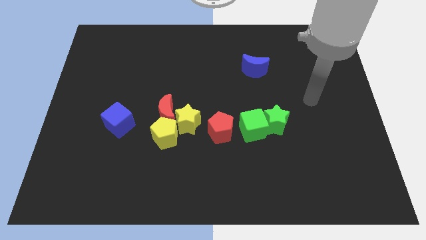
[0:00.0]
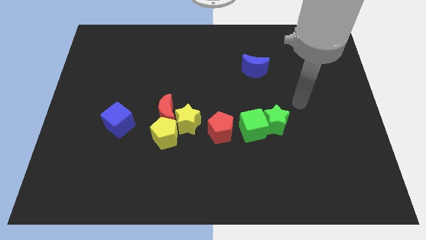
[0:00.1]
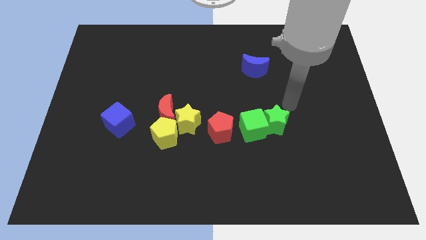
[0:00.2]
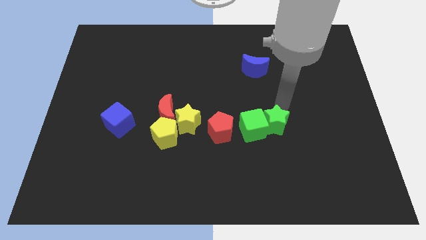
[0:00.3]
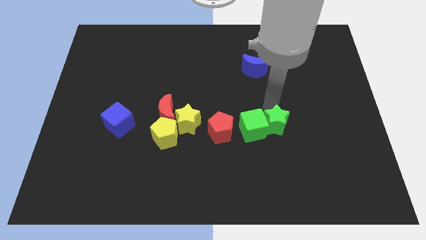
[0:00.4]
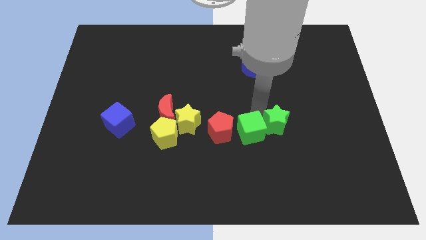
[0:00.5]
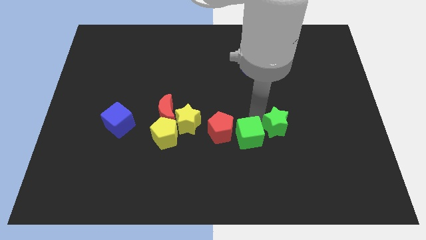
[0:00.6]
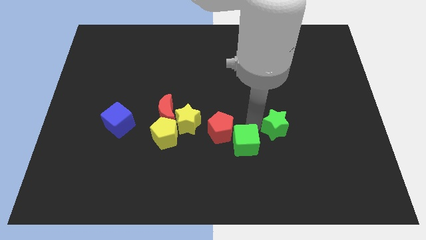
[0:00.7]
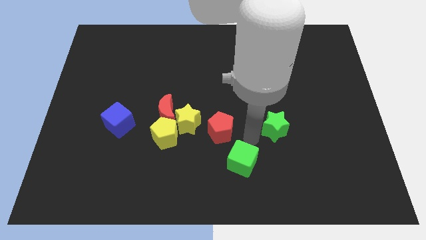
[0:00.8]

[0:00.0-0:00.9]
move the green star away from the green cube

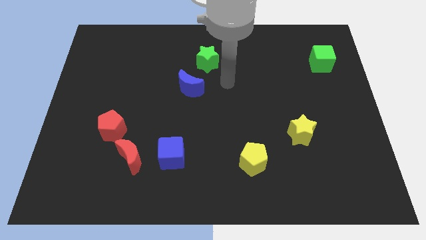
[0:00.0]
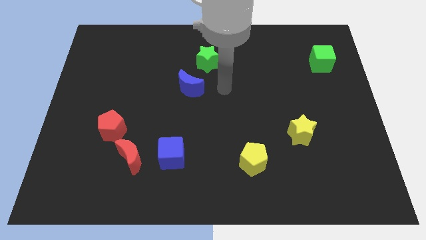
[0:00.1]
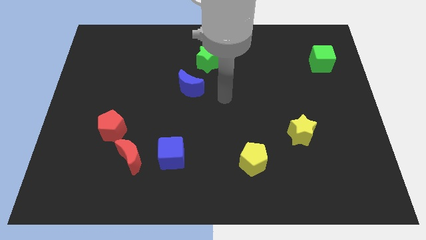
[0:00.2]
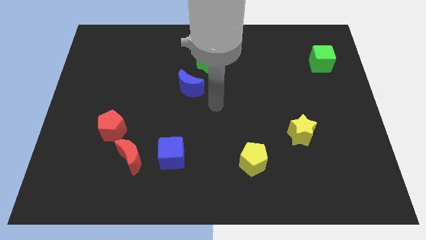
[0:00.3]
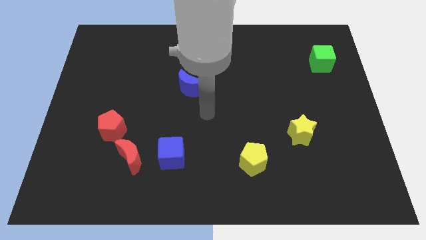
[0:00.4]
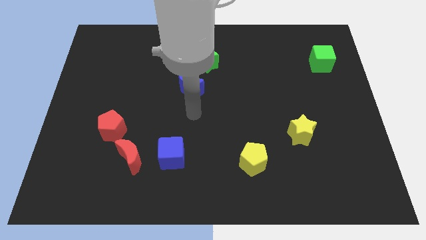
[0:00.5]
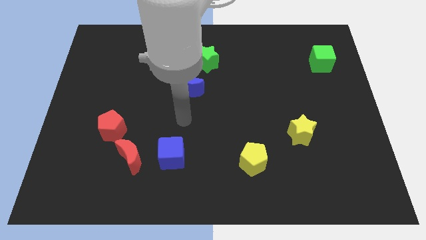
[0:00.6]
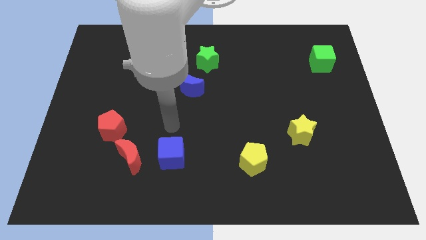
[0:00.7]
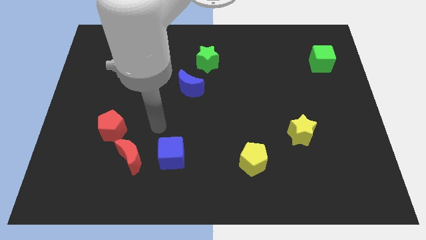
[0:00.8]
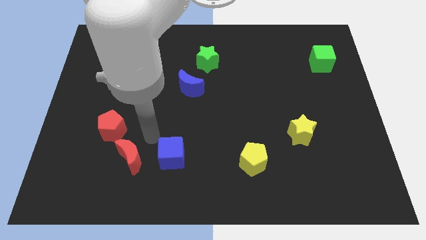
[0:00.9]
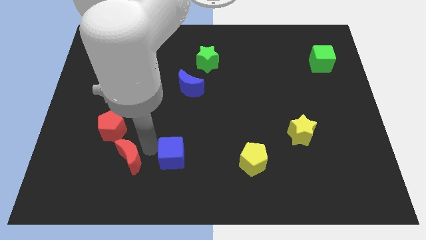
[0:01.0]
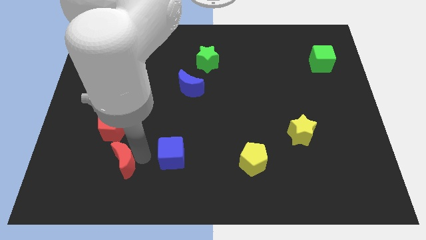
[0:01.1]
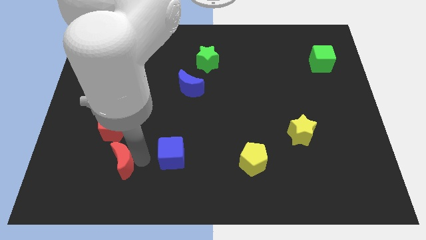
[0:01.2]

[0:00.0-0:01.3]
separate the blue cube from the red moon

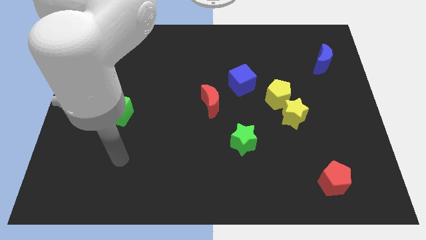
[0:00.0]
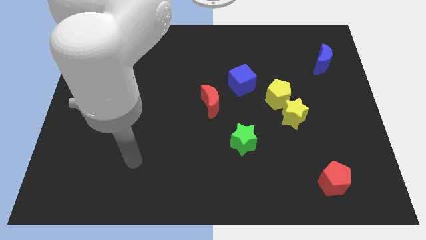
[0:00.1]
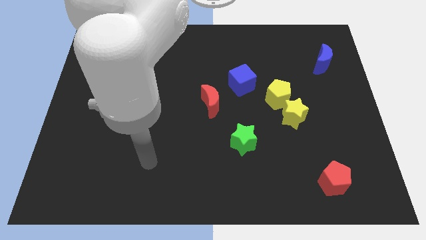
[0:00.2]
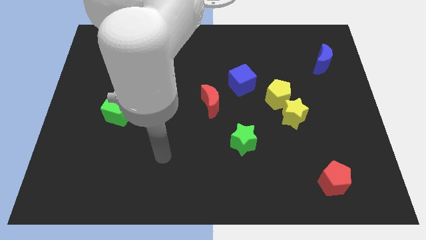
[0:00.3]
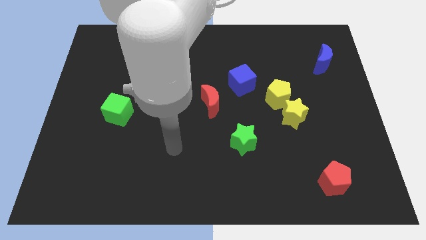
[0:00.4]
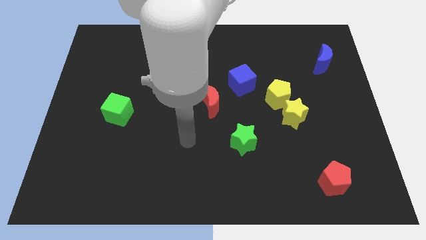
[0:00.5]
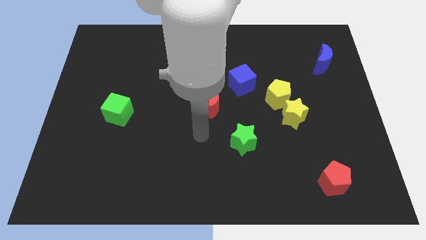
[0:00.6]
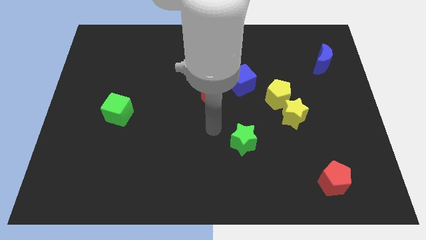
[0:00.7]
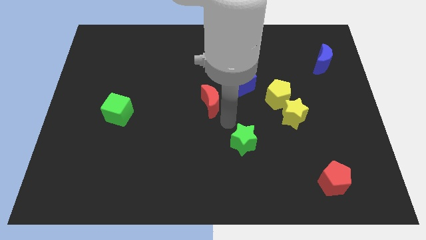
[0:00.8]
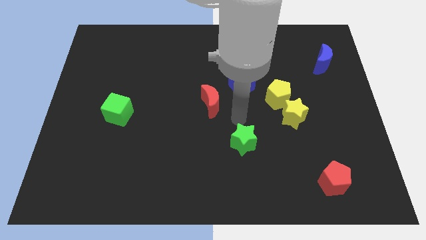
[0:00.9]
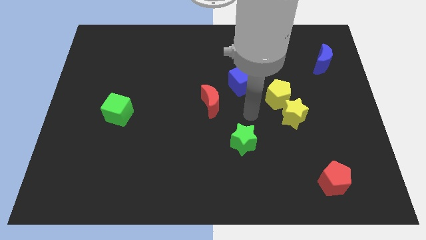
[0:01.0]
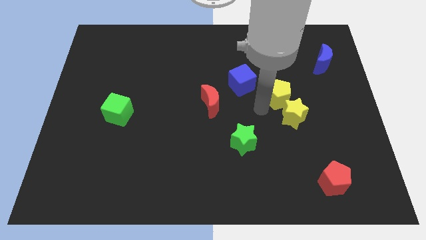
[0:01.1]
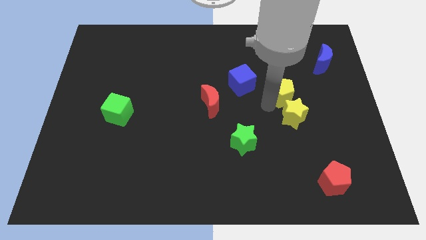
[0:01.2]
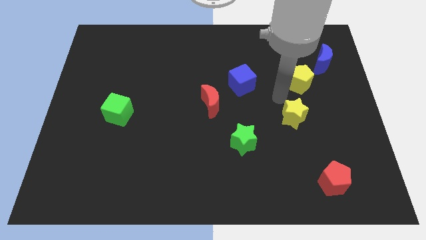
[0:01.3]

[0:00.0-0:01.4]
separate the yellow star from the yellow pentagon

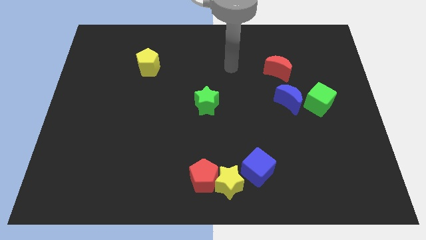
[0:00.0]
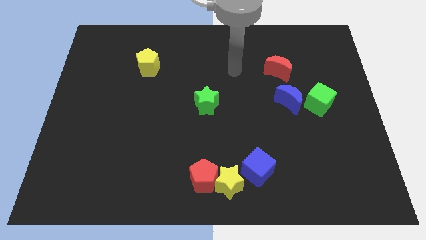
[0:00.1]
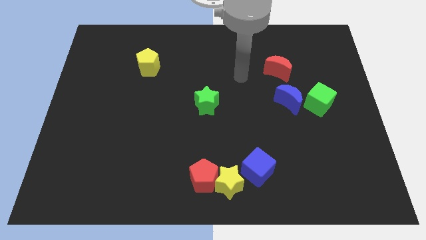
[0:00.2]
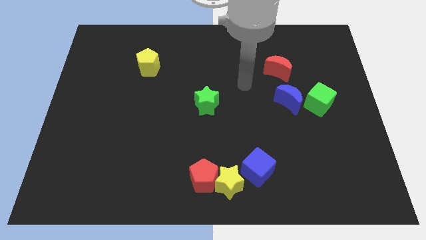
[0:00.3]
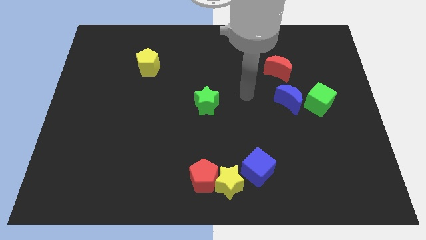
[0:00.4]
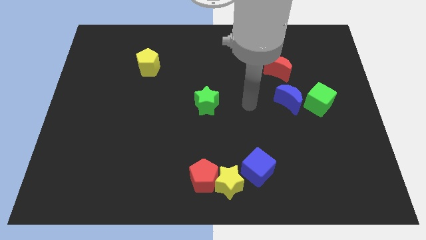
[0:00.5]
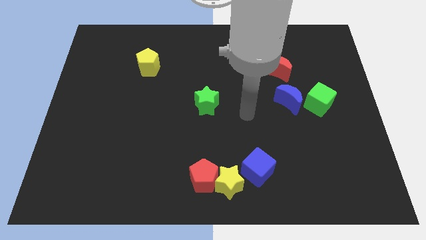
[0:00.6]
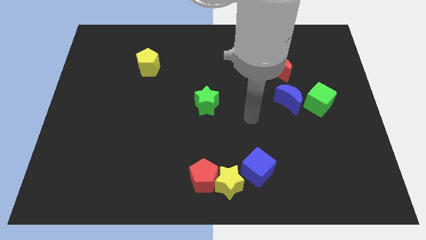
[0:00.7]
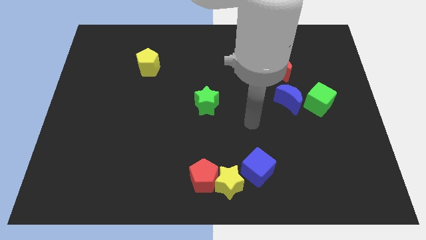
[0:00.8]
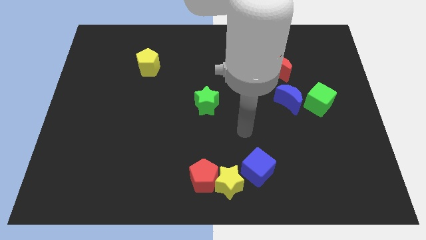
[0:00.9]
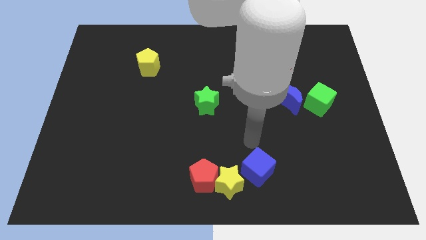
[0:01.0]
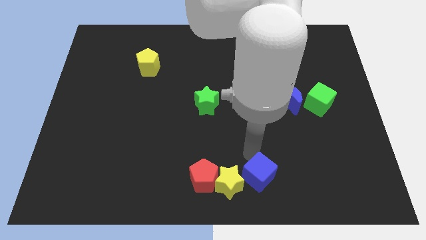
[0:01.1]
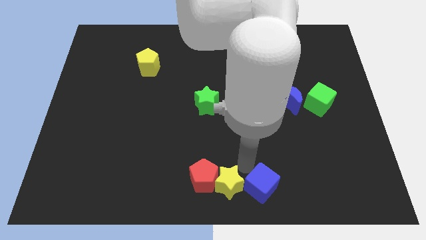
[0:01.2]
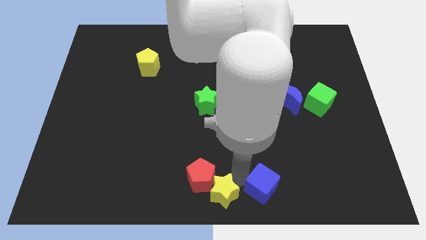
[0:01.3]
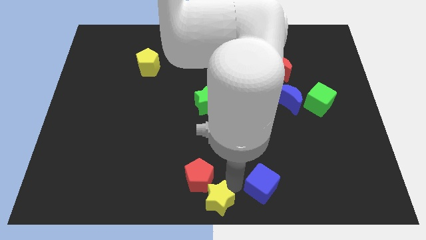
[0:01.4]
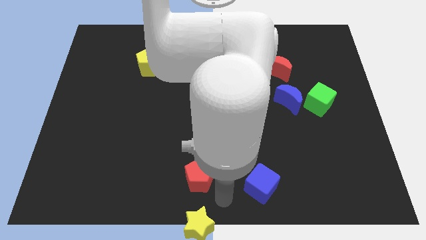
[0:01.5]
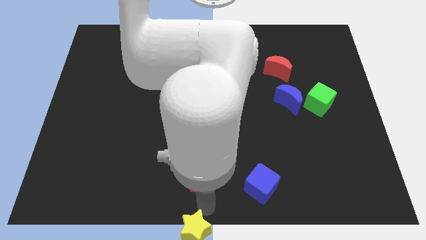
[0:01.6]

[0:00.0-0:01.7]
separate the red pentagon from the yellow star

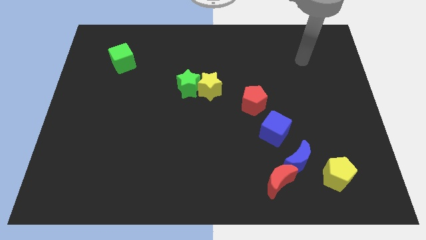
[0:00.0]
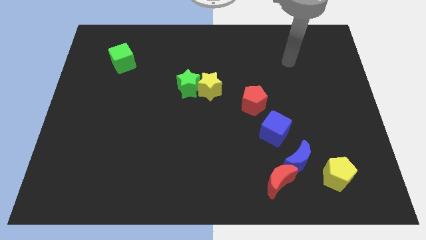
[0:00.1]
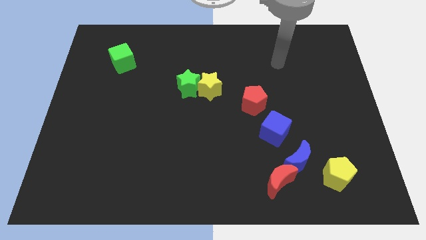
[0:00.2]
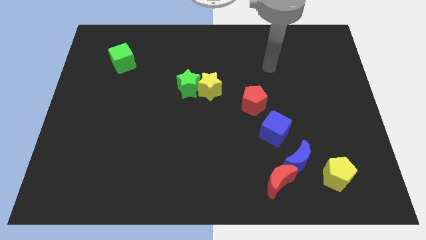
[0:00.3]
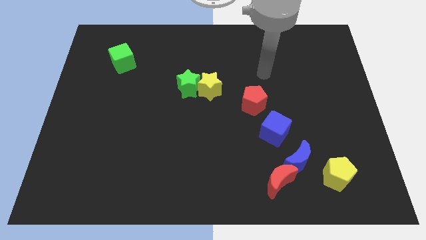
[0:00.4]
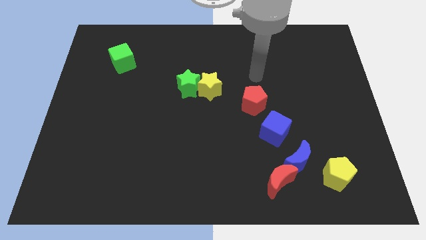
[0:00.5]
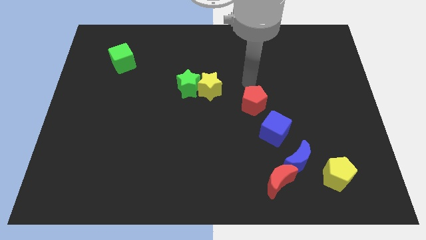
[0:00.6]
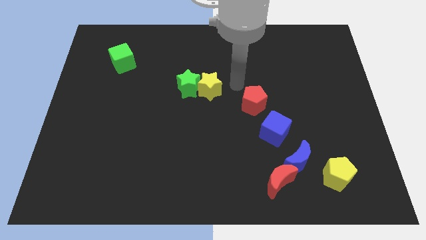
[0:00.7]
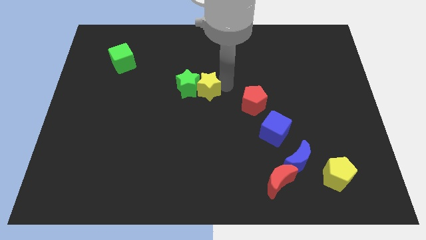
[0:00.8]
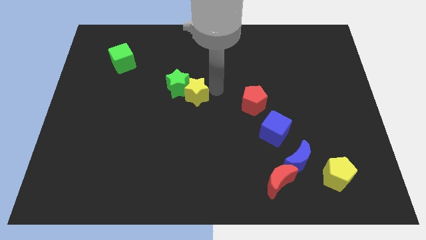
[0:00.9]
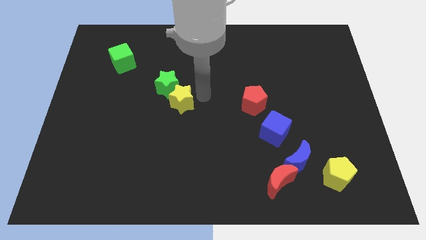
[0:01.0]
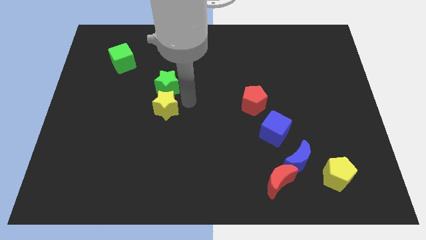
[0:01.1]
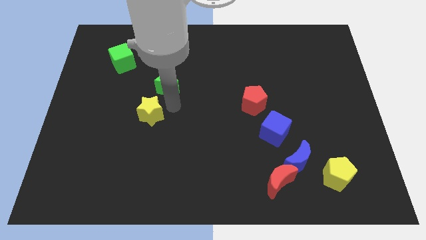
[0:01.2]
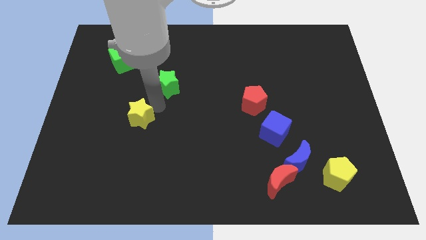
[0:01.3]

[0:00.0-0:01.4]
separate the green star from the yellow star

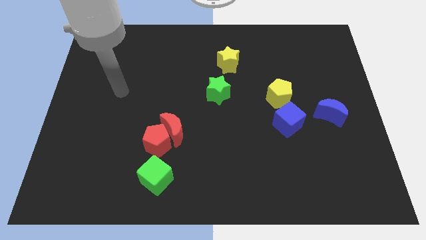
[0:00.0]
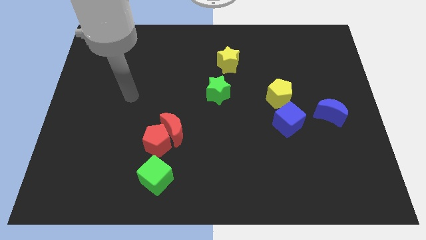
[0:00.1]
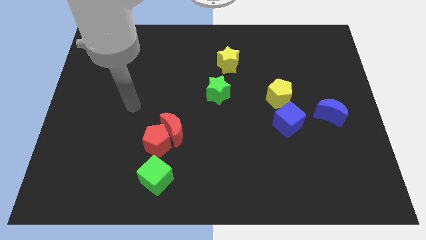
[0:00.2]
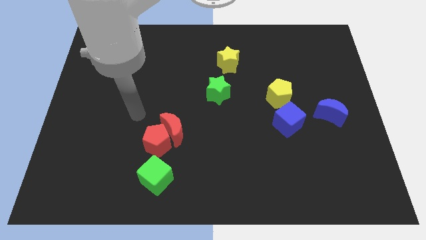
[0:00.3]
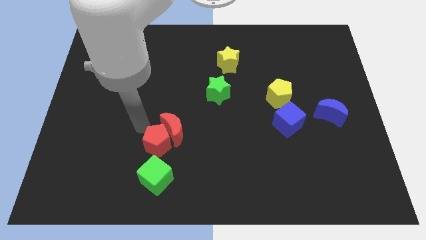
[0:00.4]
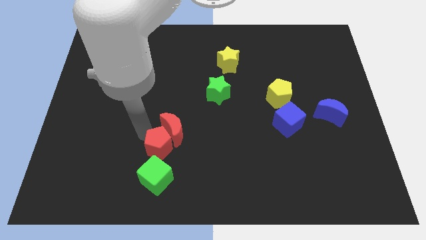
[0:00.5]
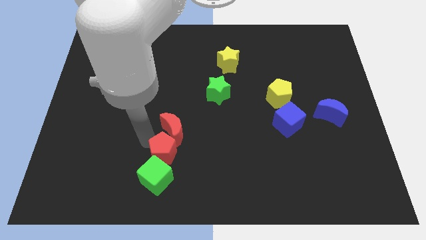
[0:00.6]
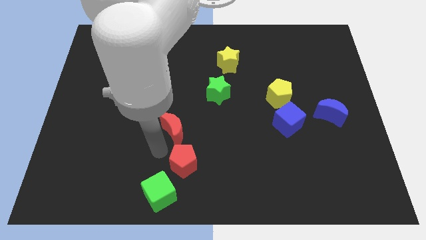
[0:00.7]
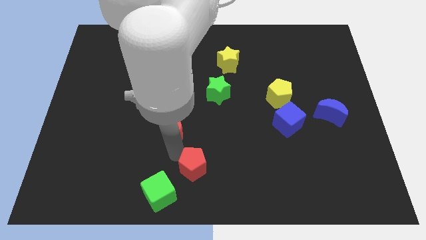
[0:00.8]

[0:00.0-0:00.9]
separate the red moon from the red pentagon

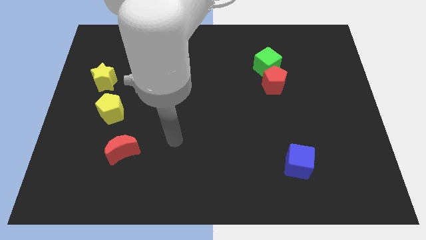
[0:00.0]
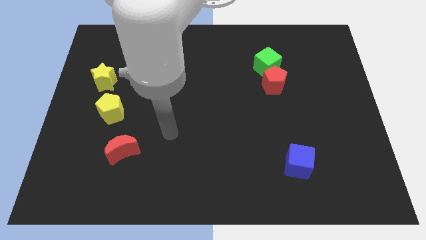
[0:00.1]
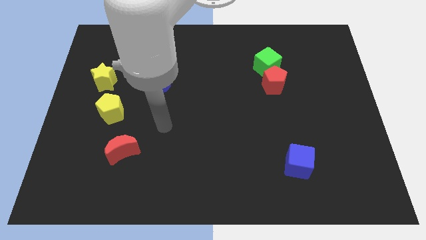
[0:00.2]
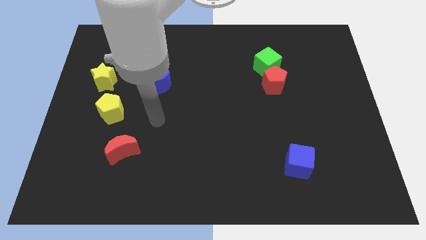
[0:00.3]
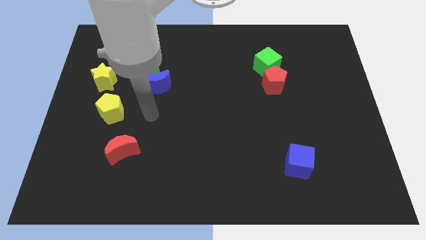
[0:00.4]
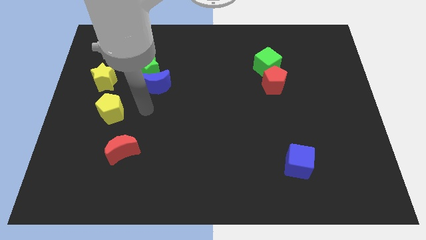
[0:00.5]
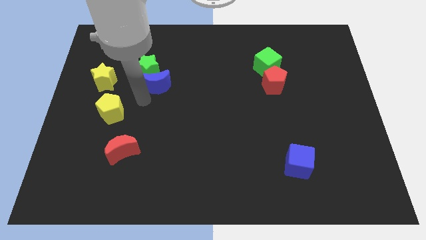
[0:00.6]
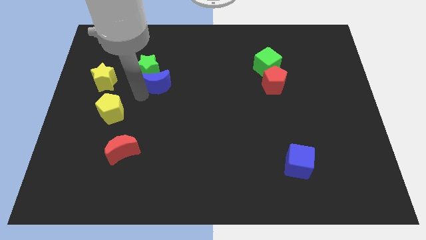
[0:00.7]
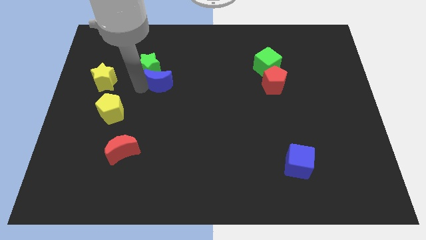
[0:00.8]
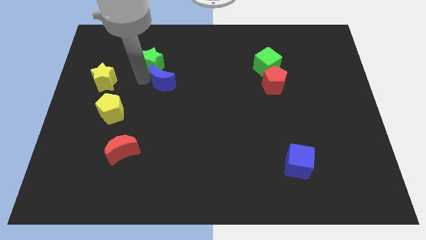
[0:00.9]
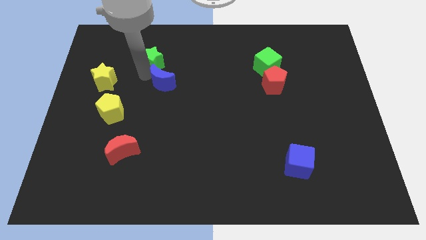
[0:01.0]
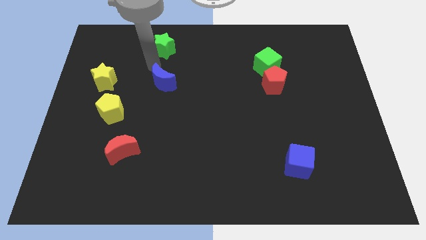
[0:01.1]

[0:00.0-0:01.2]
separate the blue moon from the green star

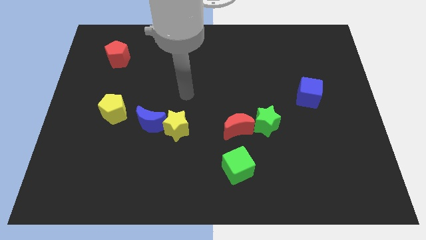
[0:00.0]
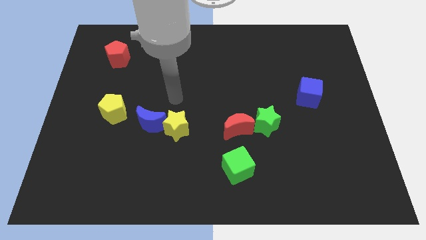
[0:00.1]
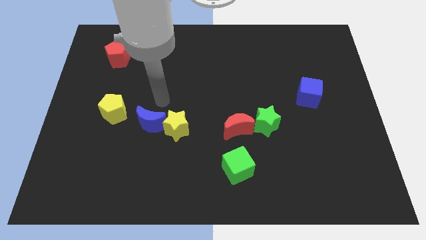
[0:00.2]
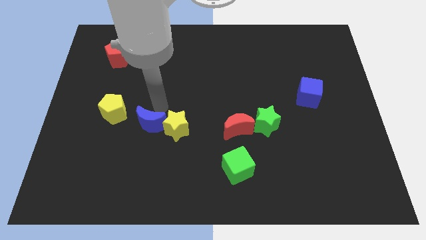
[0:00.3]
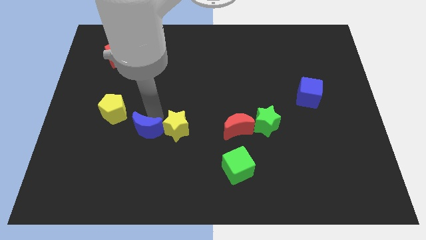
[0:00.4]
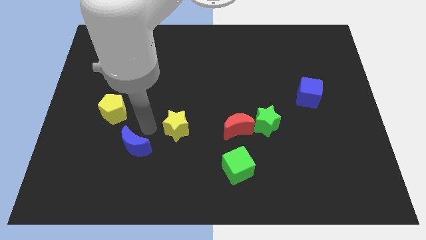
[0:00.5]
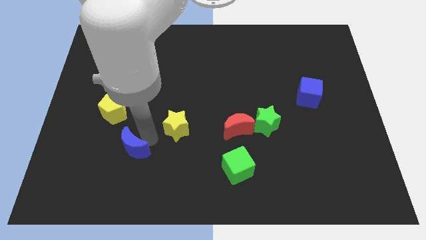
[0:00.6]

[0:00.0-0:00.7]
move the yellow star away from the blue moon
